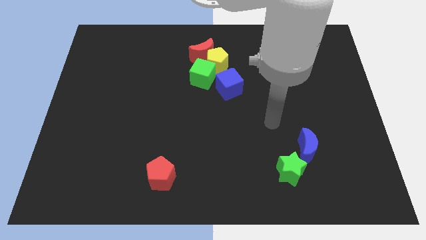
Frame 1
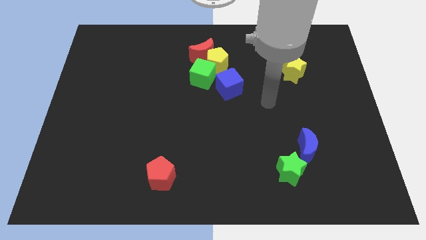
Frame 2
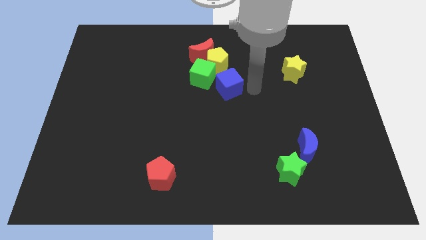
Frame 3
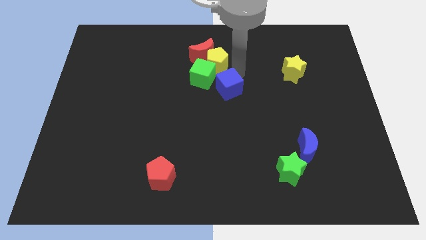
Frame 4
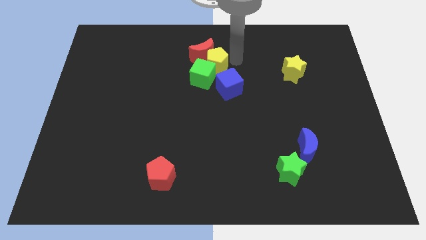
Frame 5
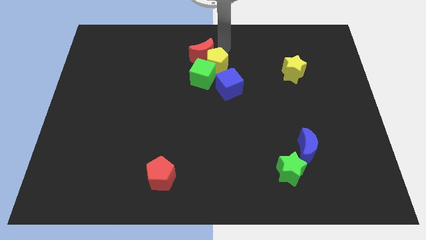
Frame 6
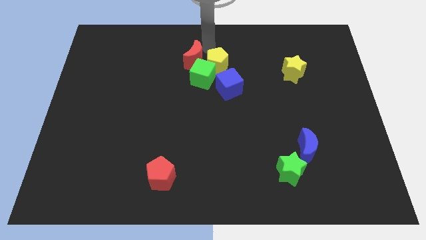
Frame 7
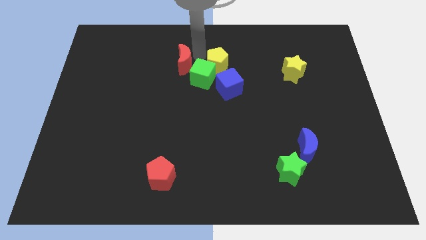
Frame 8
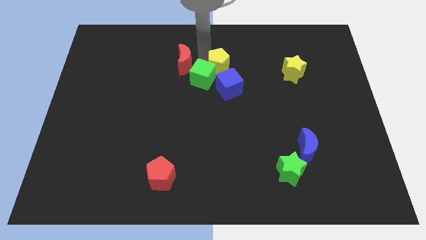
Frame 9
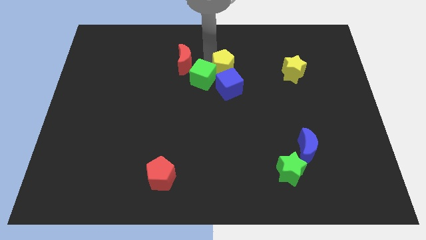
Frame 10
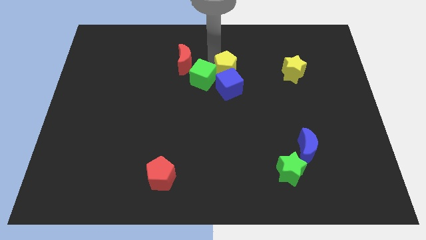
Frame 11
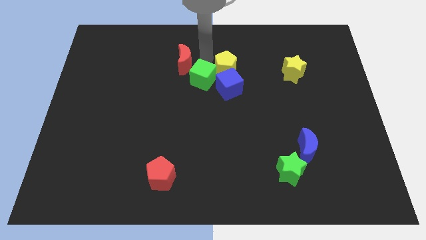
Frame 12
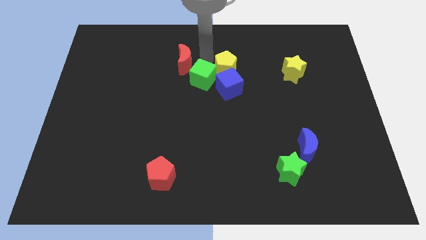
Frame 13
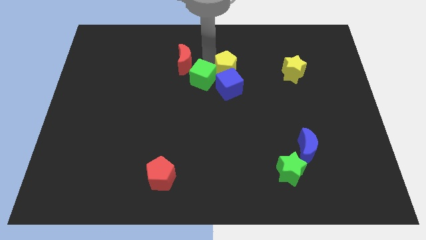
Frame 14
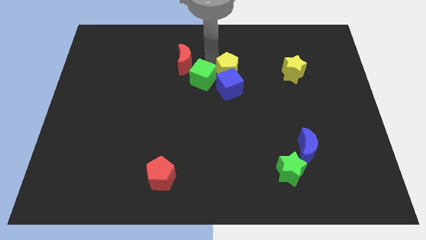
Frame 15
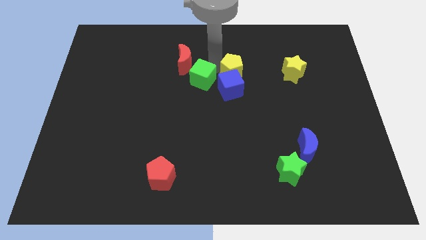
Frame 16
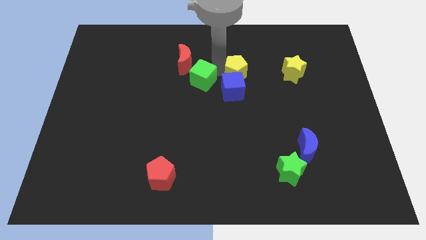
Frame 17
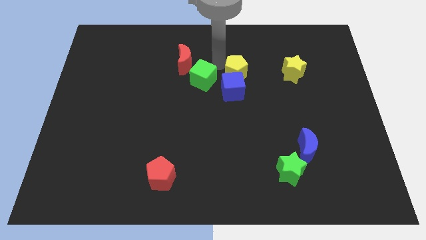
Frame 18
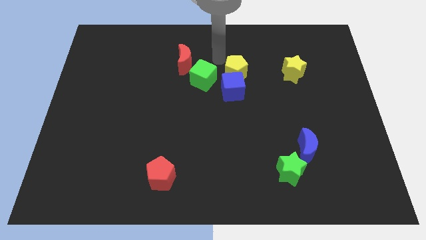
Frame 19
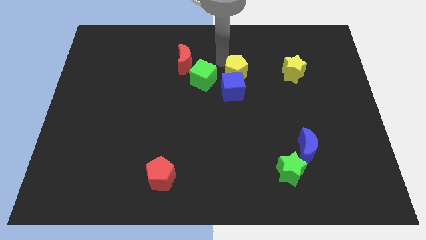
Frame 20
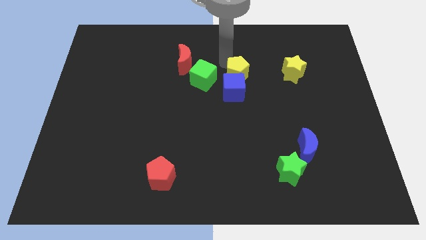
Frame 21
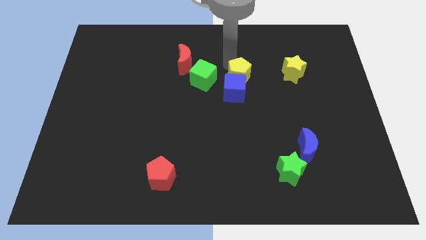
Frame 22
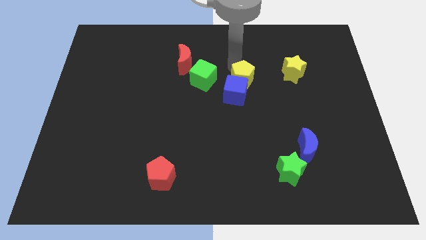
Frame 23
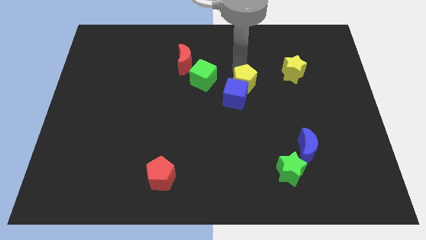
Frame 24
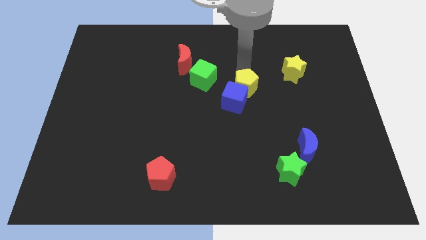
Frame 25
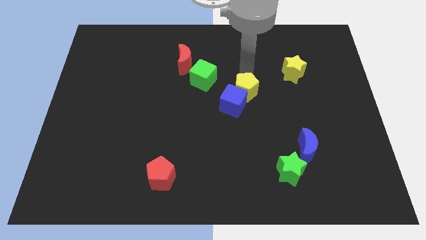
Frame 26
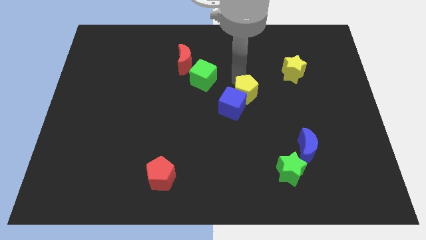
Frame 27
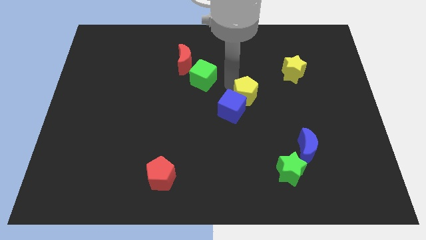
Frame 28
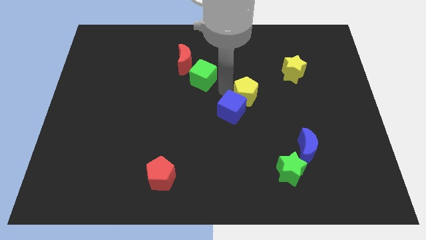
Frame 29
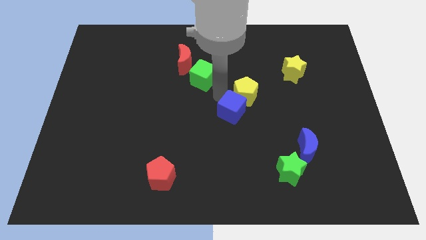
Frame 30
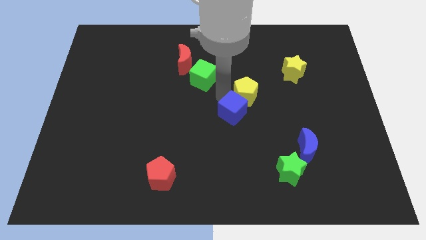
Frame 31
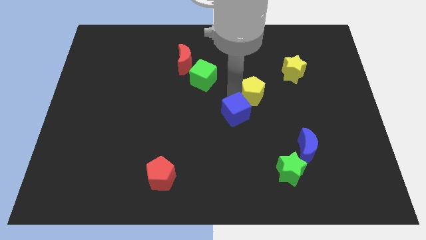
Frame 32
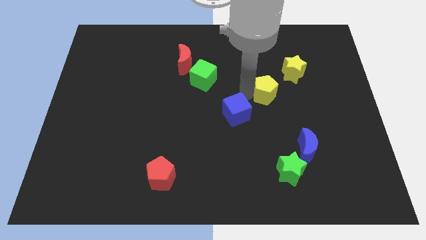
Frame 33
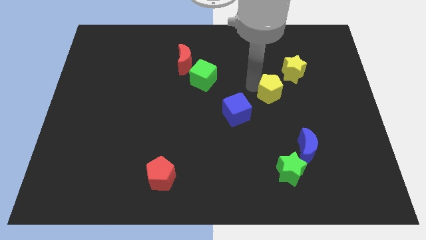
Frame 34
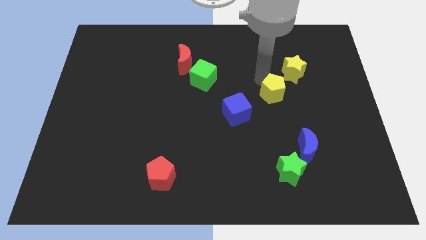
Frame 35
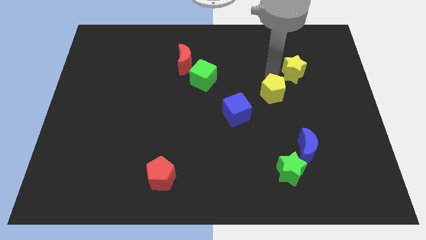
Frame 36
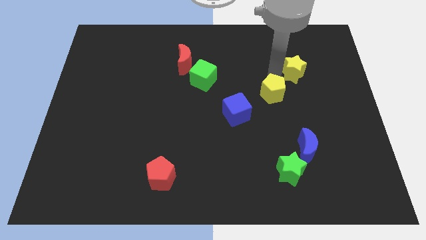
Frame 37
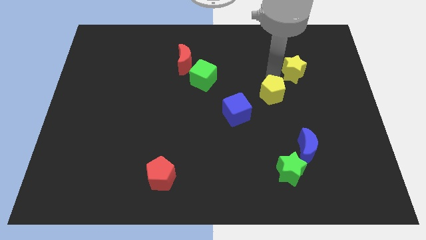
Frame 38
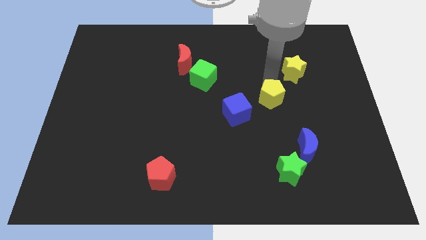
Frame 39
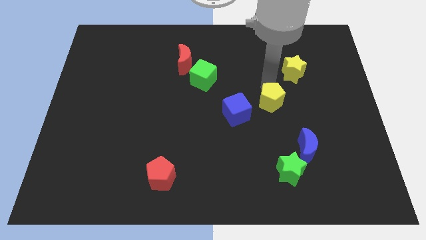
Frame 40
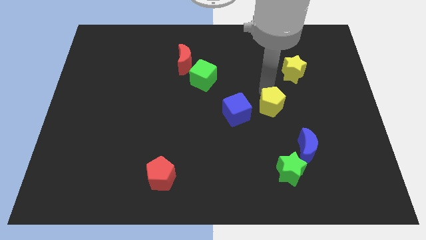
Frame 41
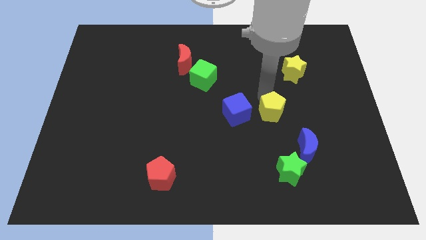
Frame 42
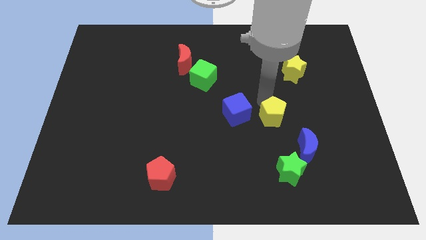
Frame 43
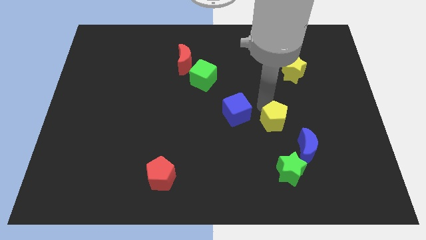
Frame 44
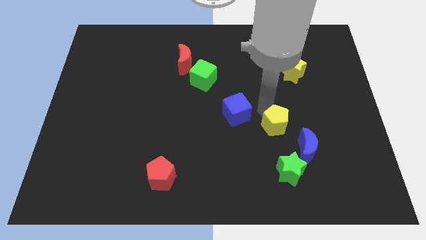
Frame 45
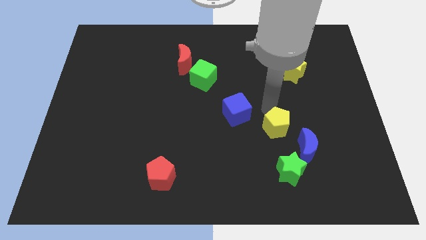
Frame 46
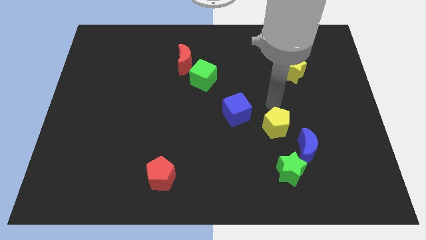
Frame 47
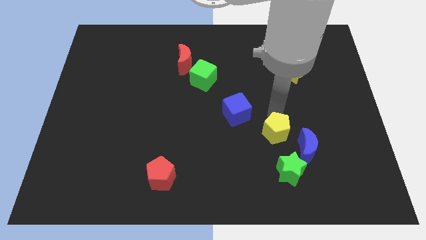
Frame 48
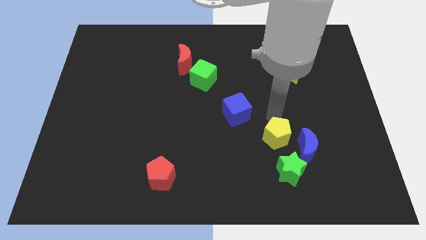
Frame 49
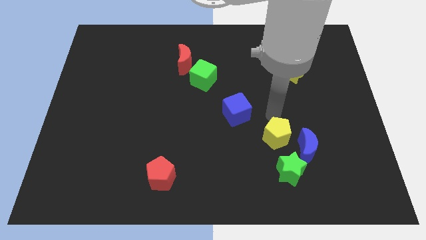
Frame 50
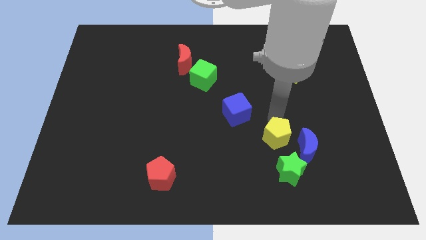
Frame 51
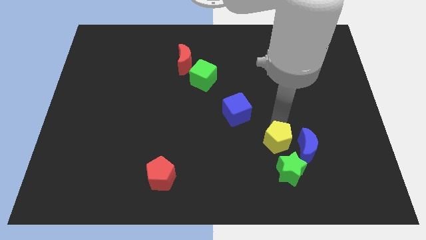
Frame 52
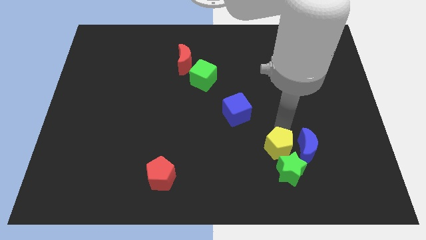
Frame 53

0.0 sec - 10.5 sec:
put the yellow pentagon next to the green star

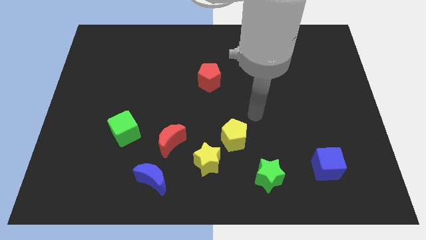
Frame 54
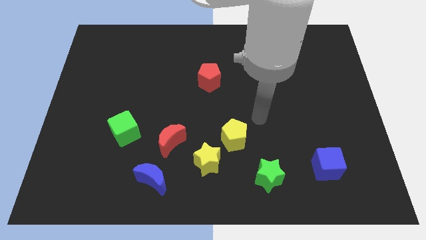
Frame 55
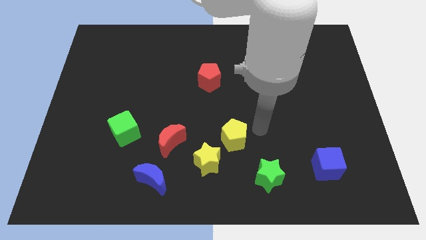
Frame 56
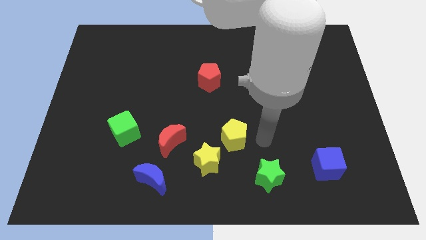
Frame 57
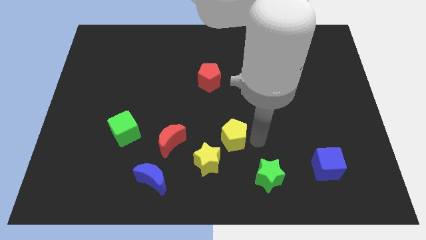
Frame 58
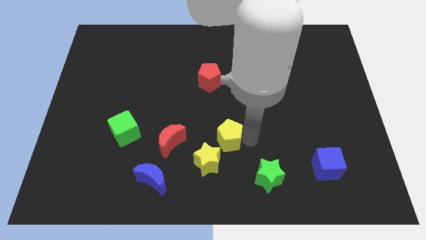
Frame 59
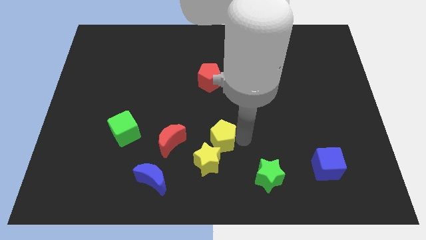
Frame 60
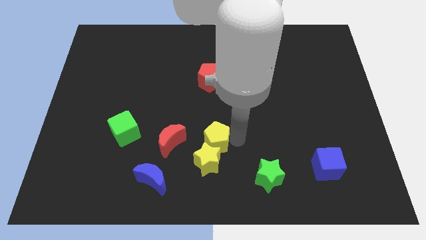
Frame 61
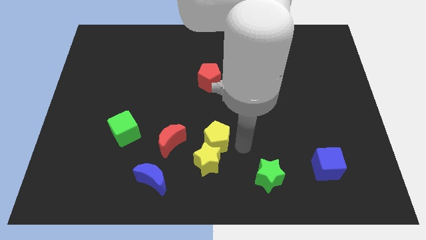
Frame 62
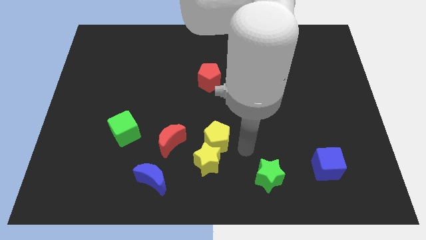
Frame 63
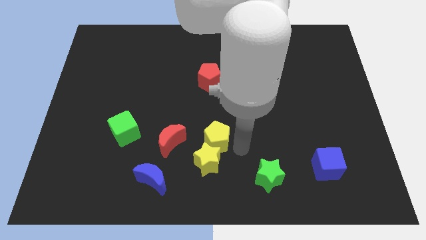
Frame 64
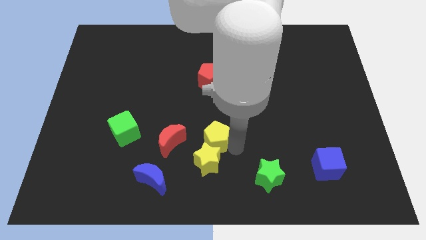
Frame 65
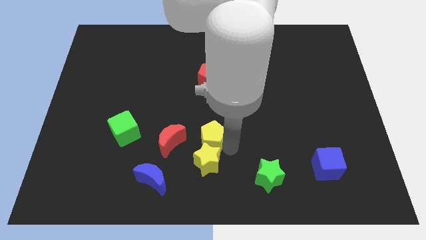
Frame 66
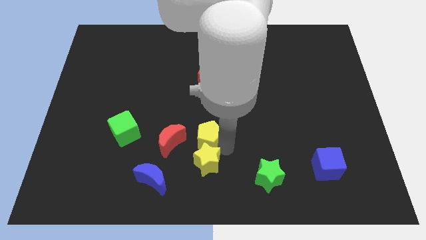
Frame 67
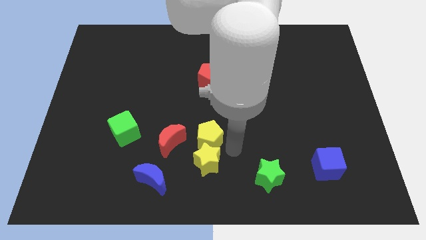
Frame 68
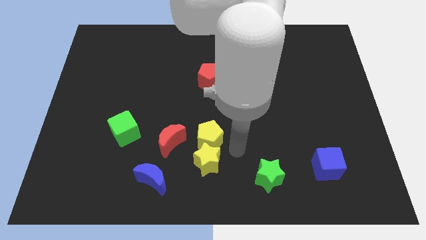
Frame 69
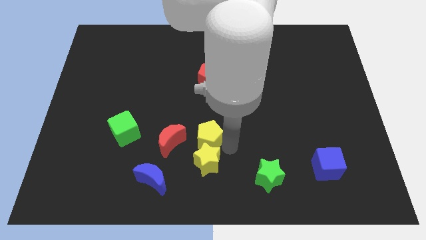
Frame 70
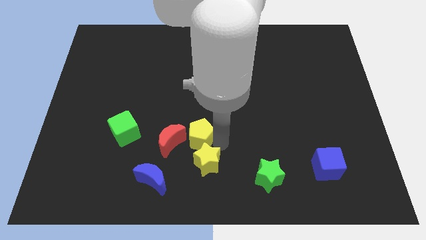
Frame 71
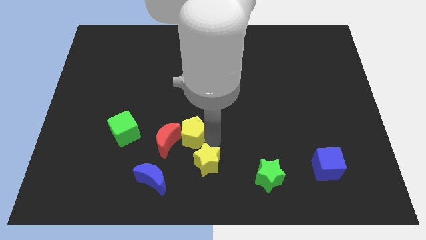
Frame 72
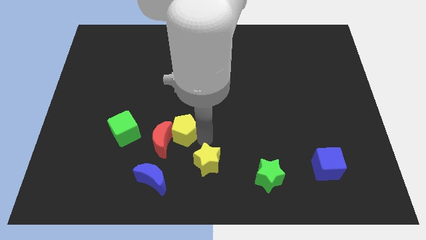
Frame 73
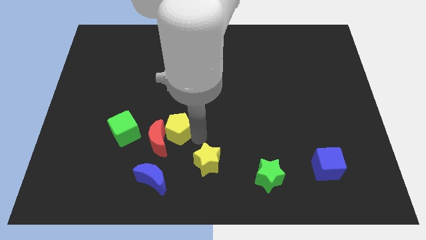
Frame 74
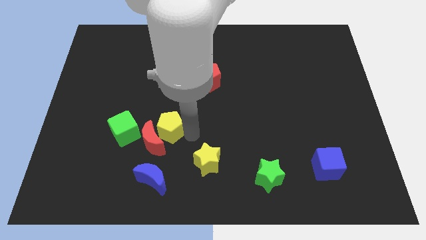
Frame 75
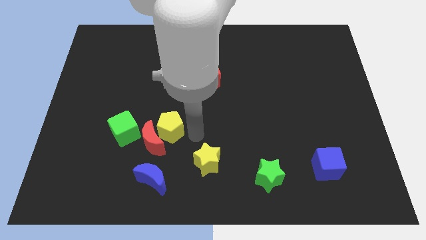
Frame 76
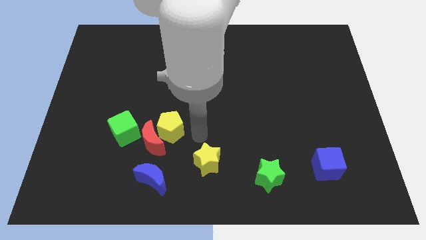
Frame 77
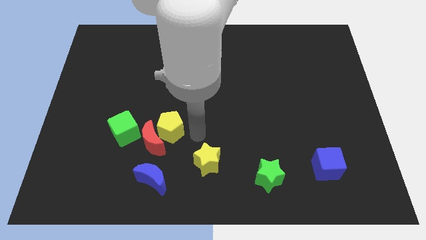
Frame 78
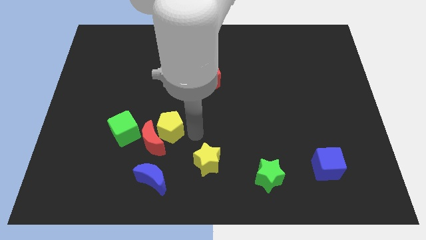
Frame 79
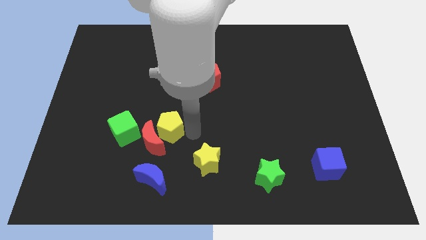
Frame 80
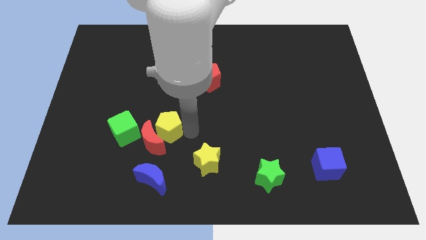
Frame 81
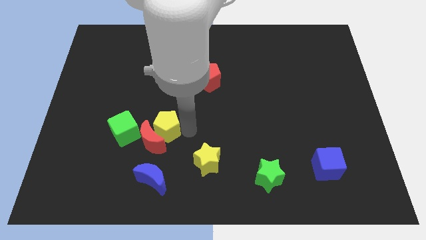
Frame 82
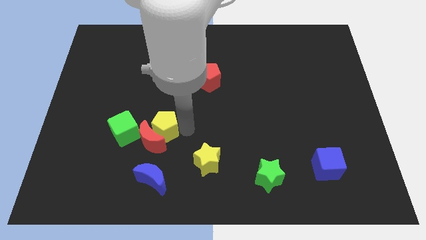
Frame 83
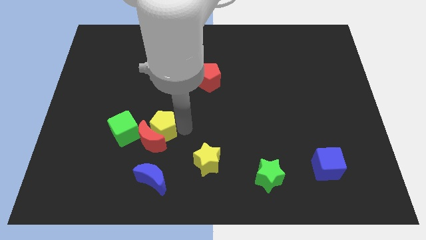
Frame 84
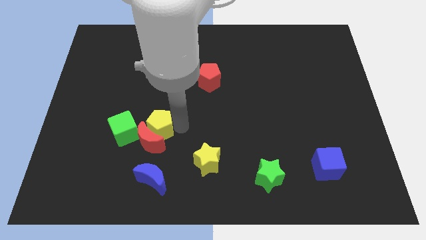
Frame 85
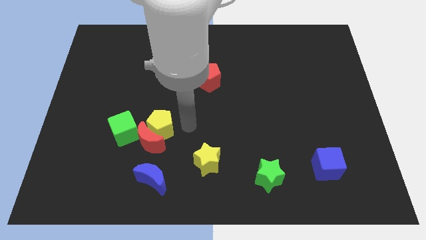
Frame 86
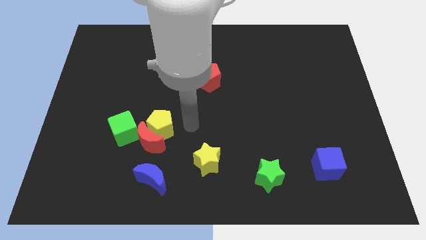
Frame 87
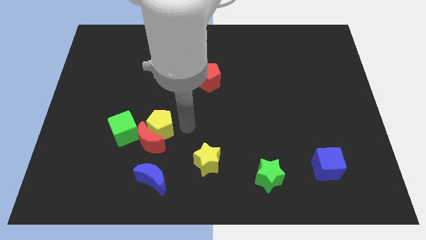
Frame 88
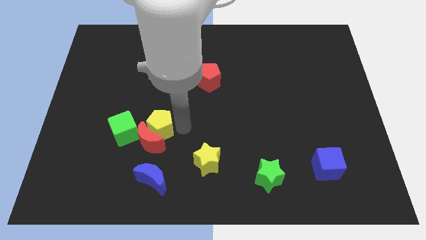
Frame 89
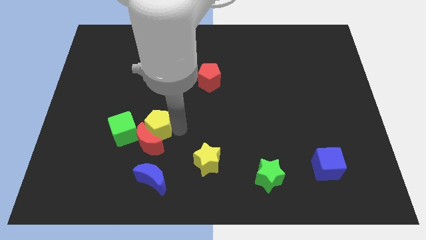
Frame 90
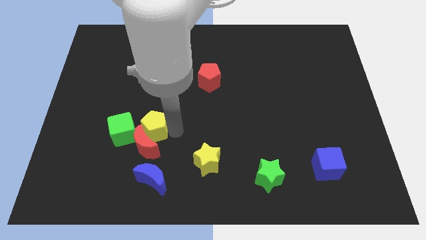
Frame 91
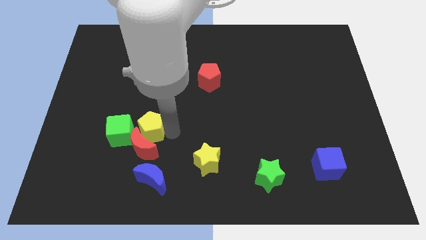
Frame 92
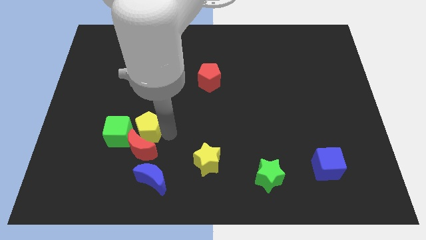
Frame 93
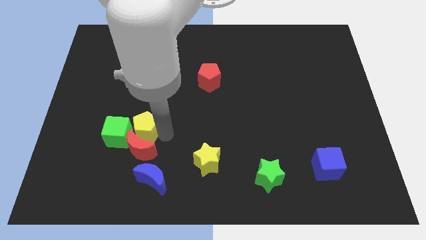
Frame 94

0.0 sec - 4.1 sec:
put the yellow pentagon towards the green cube
